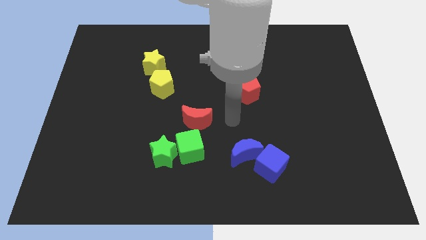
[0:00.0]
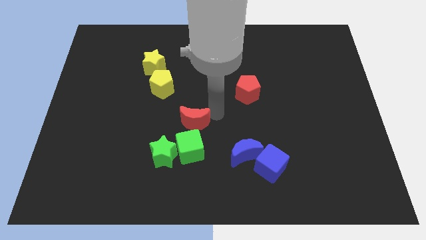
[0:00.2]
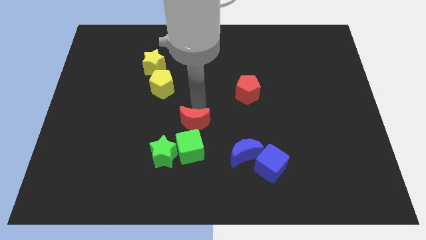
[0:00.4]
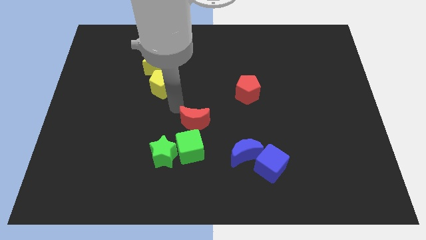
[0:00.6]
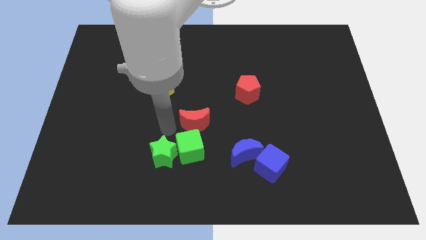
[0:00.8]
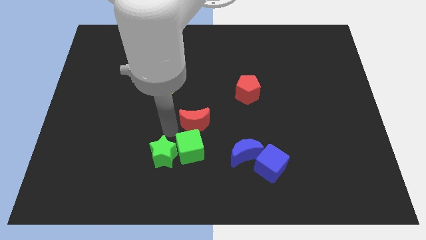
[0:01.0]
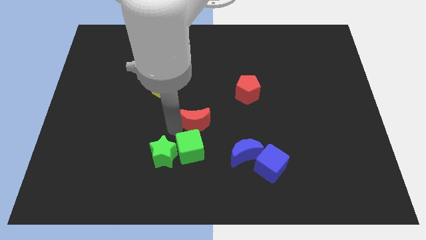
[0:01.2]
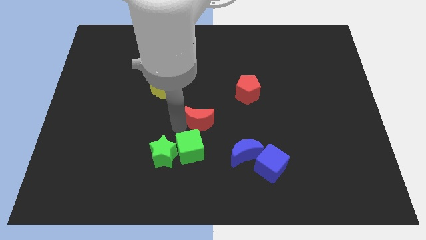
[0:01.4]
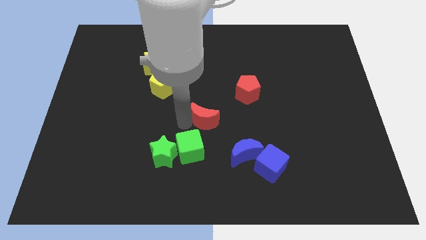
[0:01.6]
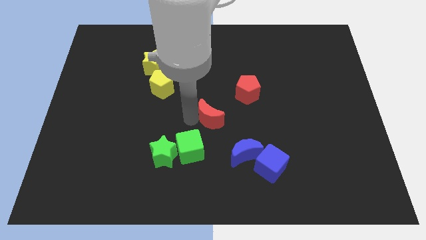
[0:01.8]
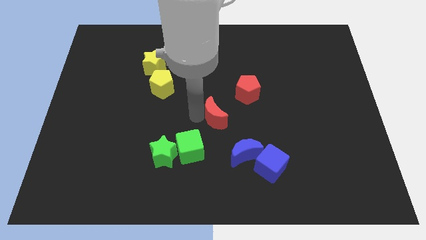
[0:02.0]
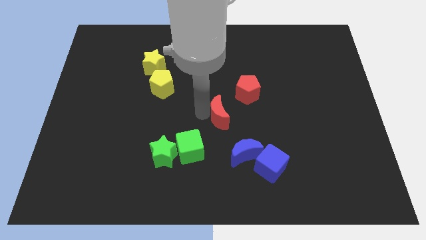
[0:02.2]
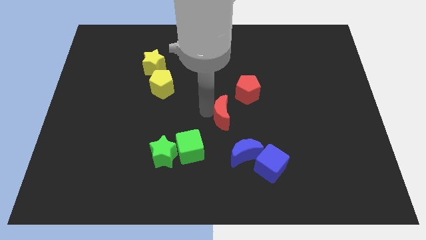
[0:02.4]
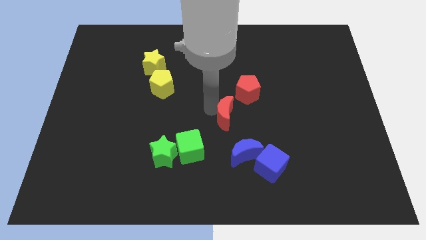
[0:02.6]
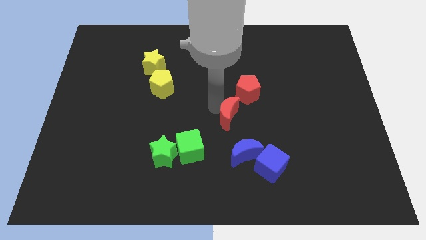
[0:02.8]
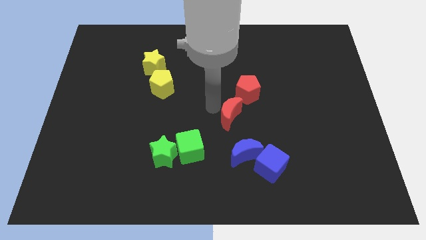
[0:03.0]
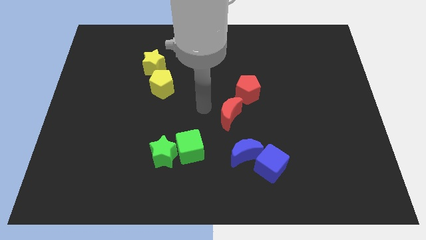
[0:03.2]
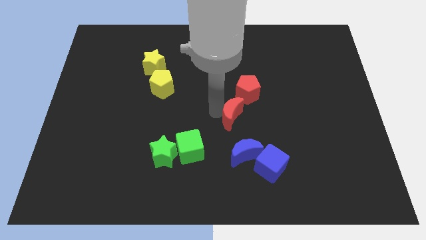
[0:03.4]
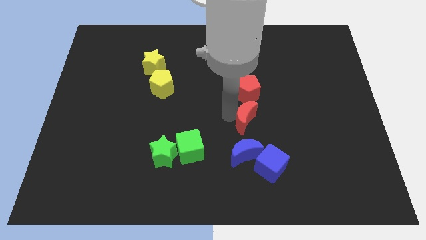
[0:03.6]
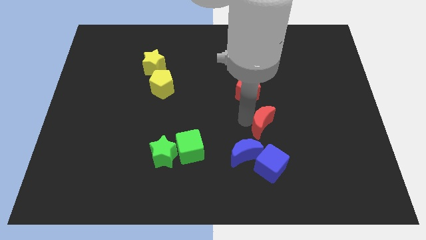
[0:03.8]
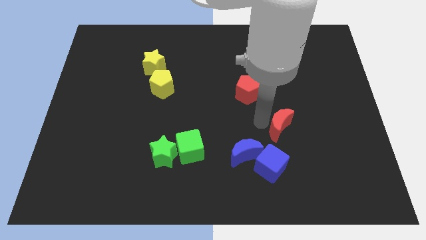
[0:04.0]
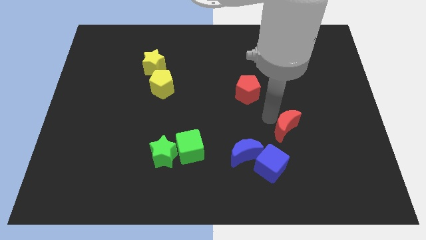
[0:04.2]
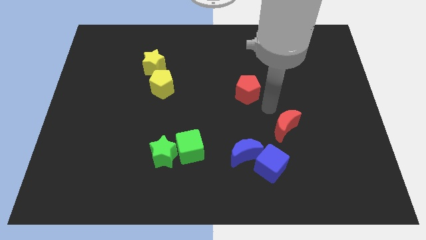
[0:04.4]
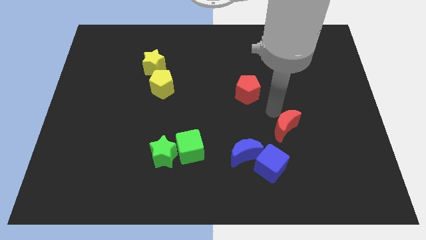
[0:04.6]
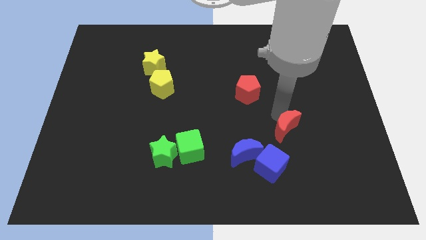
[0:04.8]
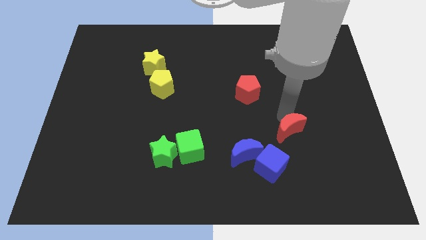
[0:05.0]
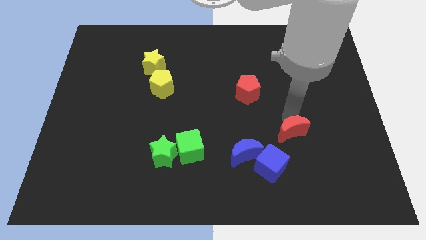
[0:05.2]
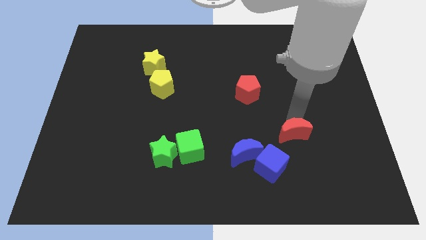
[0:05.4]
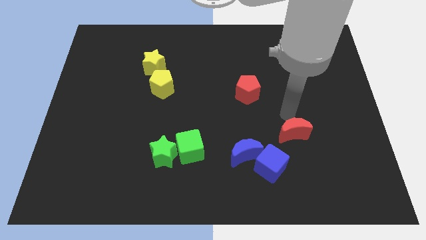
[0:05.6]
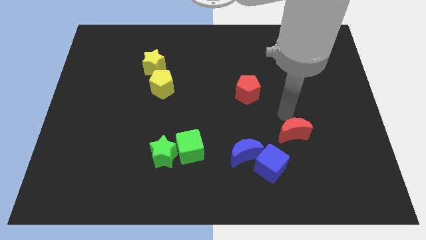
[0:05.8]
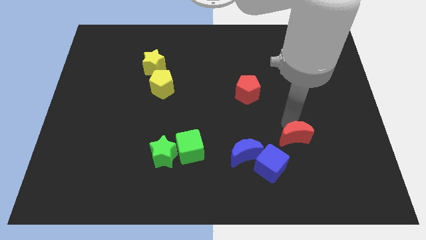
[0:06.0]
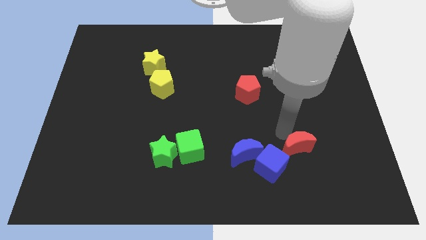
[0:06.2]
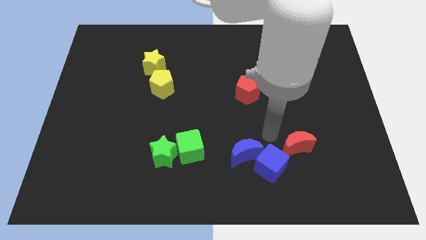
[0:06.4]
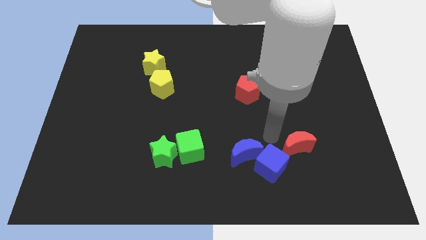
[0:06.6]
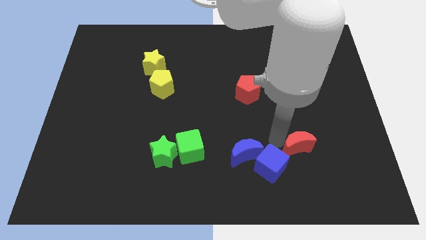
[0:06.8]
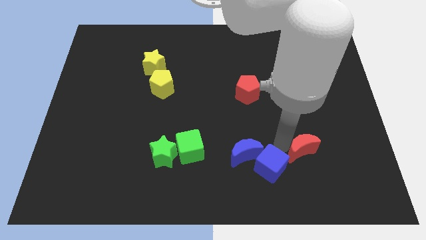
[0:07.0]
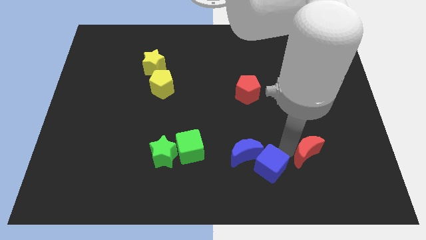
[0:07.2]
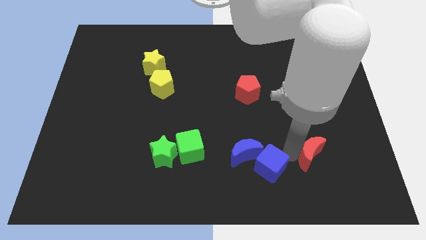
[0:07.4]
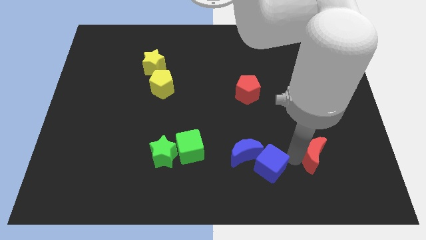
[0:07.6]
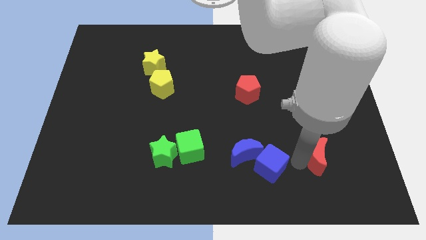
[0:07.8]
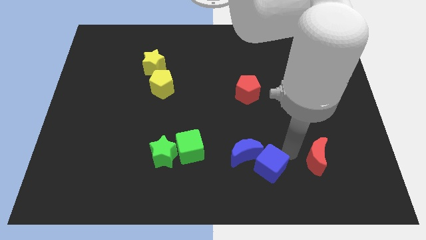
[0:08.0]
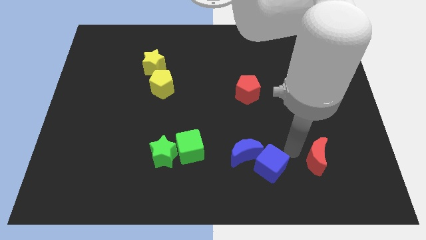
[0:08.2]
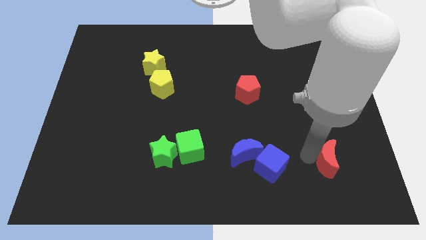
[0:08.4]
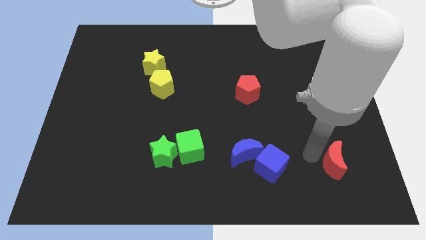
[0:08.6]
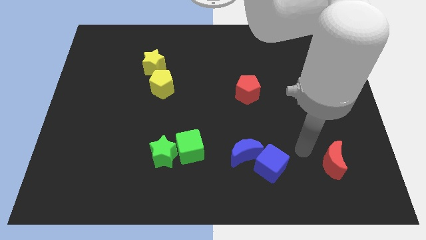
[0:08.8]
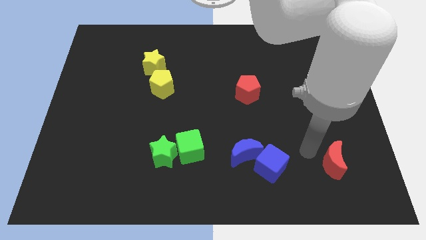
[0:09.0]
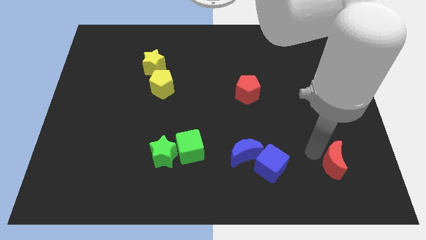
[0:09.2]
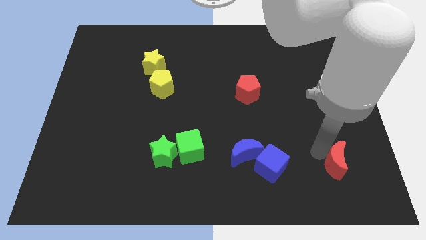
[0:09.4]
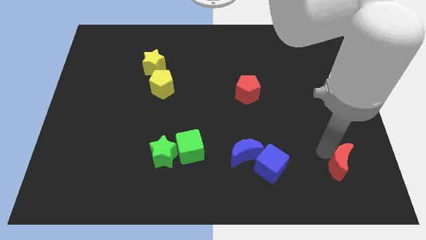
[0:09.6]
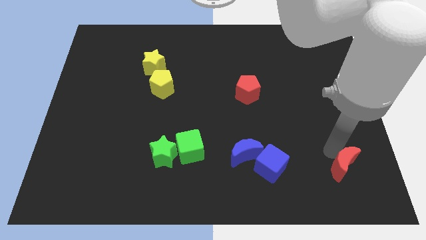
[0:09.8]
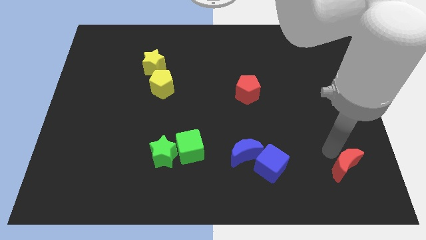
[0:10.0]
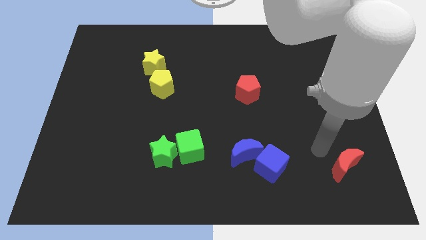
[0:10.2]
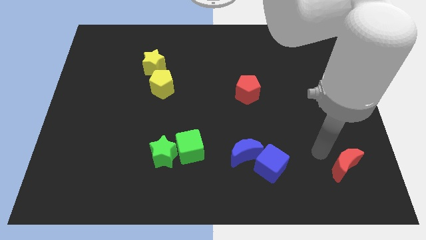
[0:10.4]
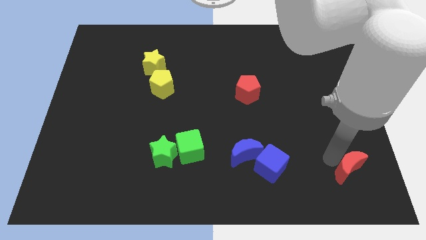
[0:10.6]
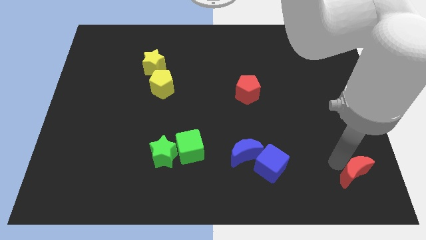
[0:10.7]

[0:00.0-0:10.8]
put the red moon to the bottom right

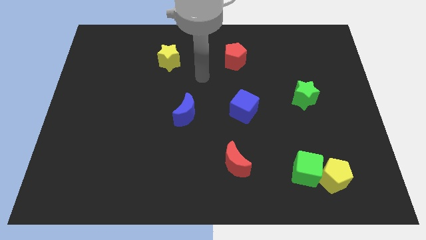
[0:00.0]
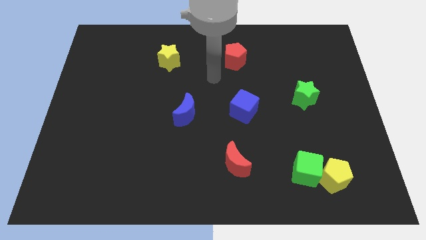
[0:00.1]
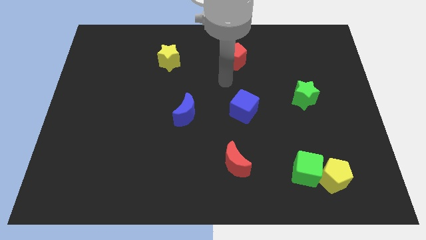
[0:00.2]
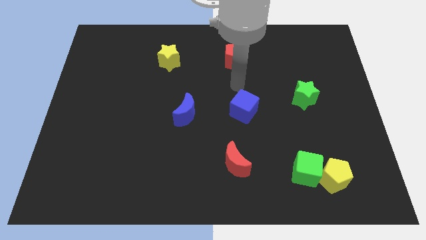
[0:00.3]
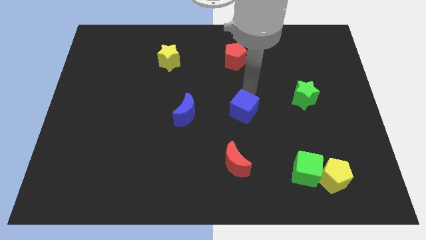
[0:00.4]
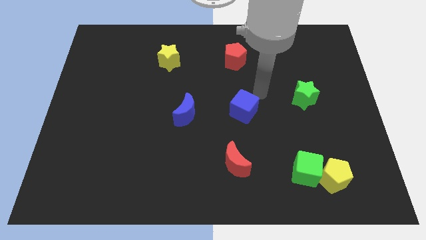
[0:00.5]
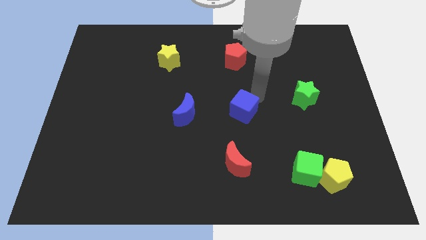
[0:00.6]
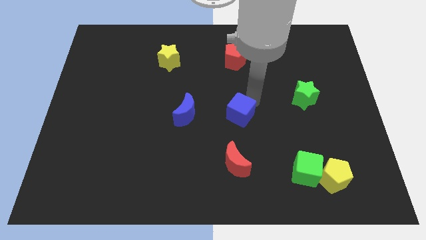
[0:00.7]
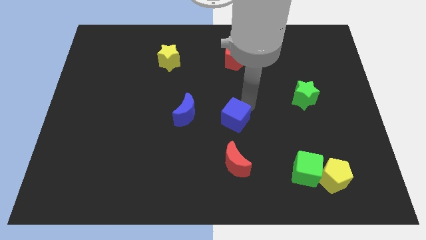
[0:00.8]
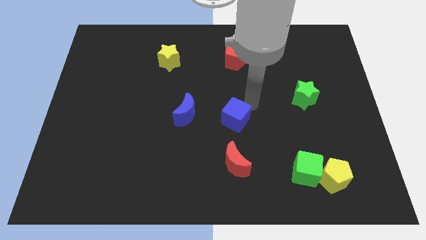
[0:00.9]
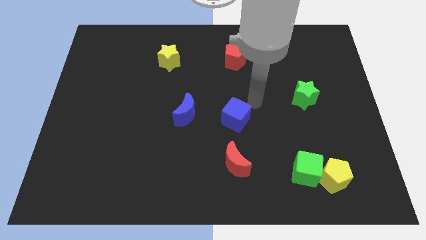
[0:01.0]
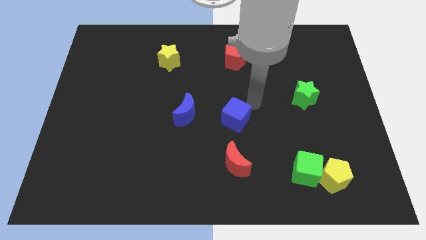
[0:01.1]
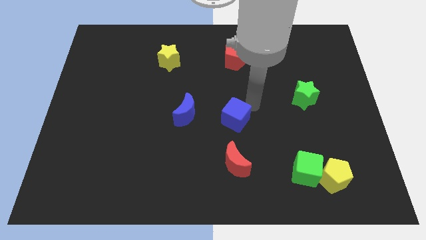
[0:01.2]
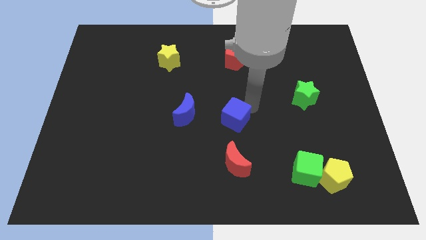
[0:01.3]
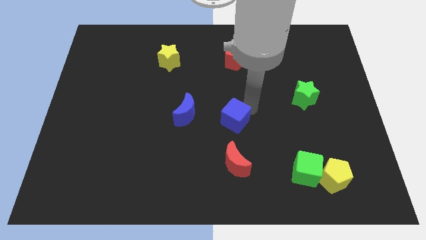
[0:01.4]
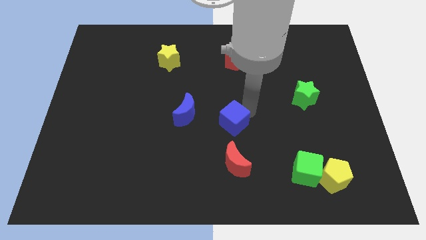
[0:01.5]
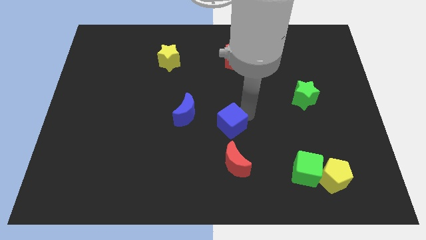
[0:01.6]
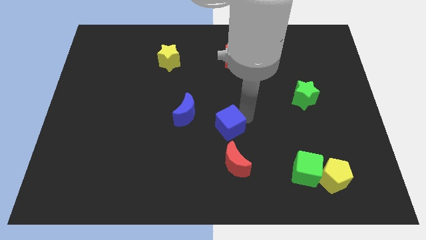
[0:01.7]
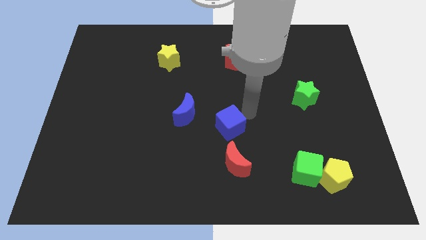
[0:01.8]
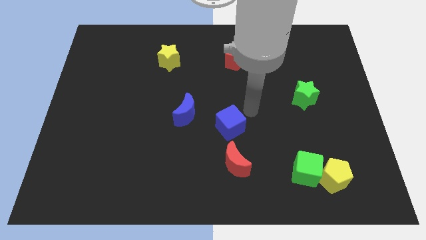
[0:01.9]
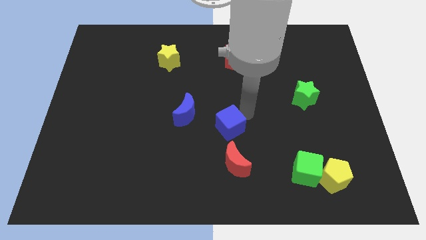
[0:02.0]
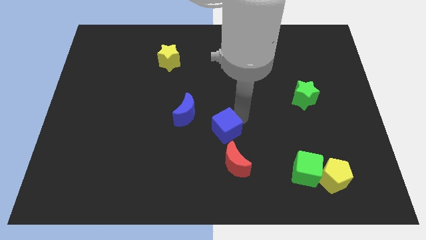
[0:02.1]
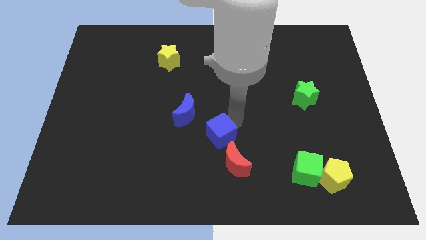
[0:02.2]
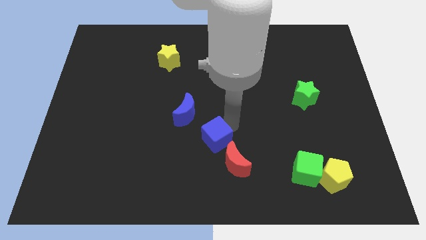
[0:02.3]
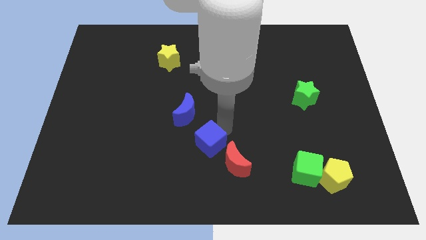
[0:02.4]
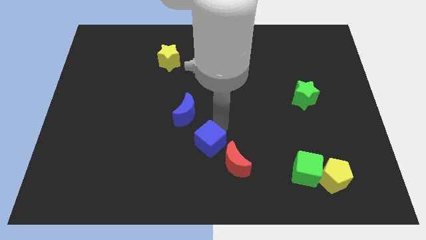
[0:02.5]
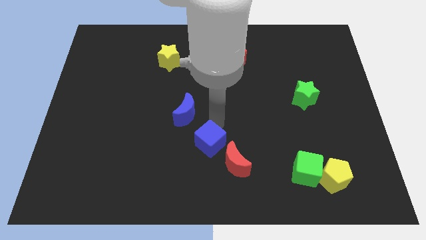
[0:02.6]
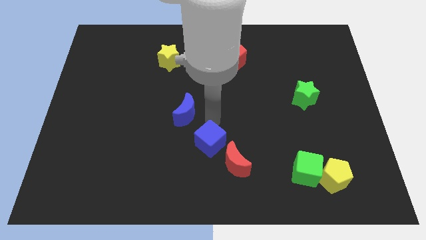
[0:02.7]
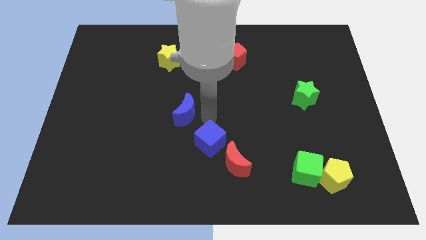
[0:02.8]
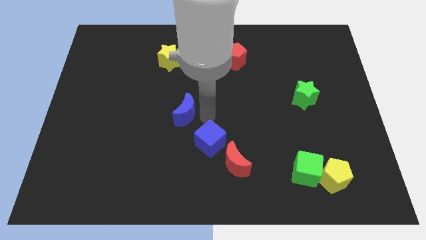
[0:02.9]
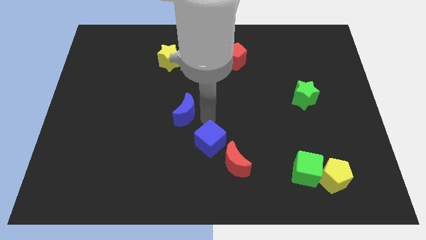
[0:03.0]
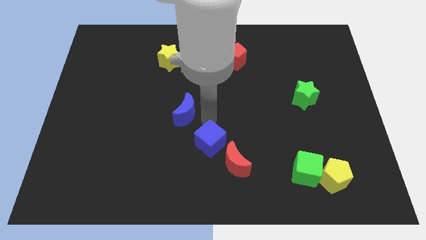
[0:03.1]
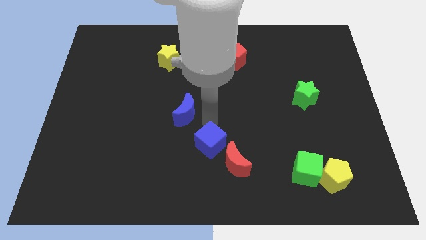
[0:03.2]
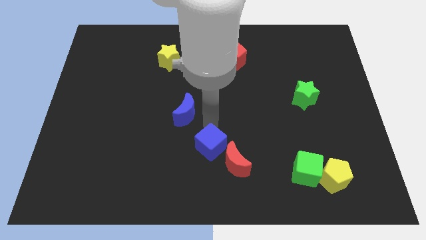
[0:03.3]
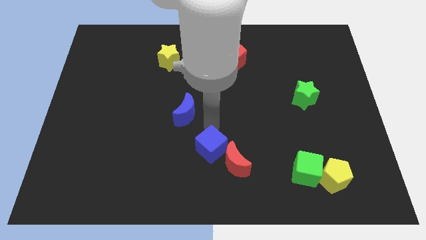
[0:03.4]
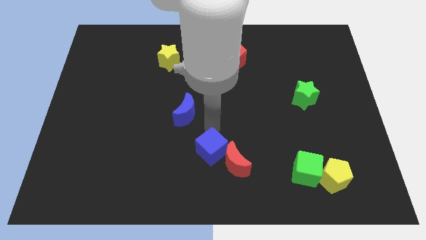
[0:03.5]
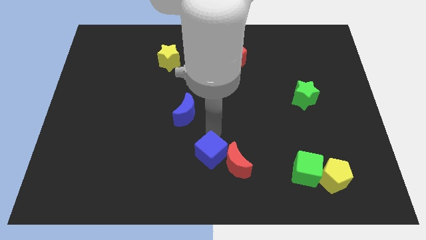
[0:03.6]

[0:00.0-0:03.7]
slide the blue cube to the bottom side
